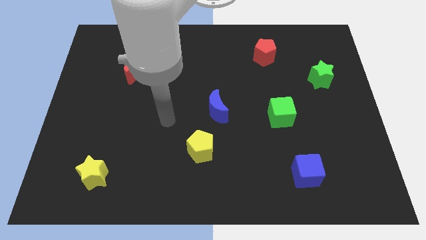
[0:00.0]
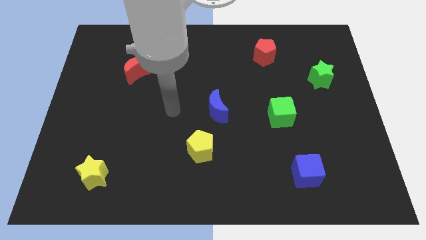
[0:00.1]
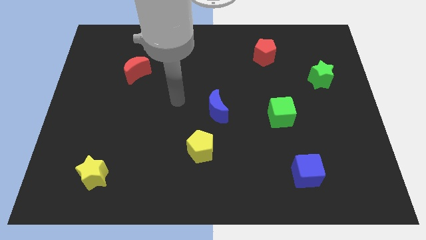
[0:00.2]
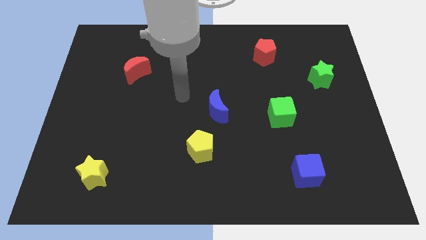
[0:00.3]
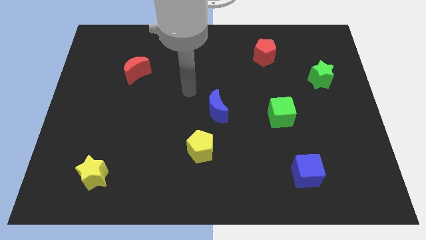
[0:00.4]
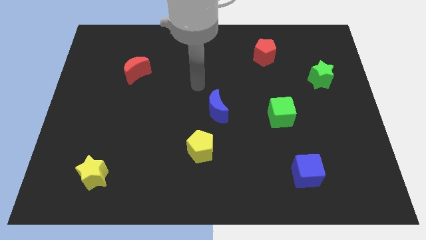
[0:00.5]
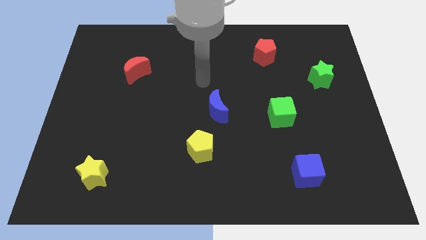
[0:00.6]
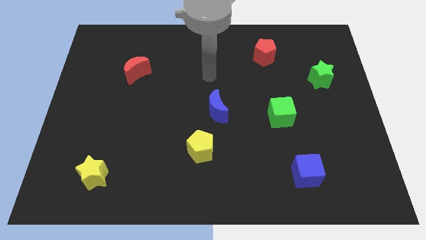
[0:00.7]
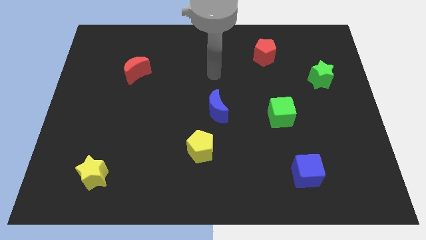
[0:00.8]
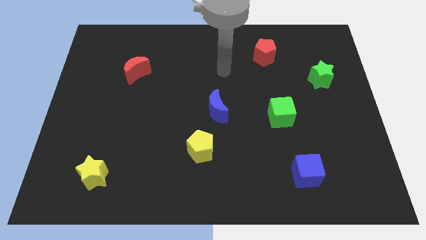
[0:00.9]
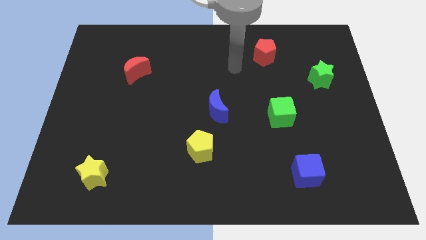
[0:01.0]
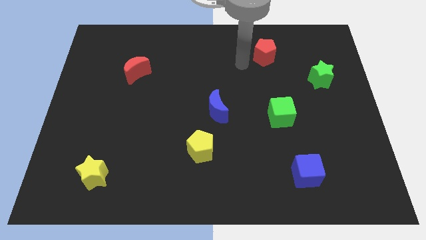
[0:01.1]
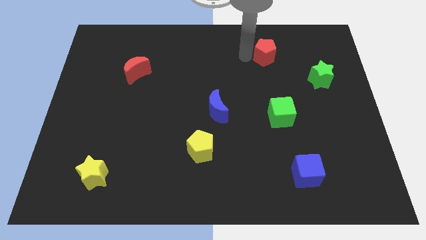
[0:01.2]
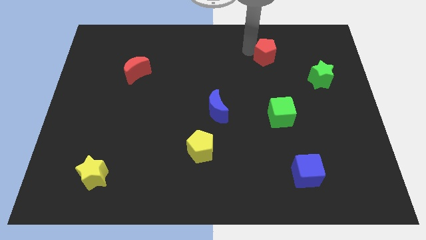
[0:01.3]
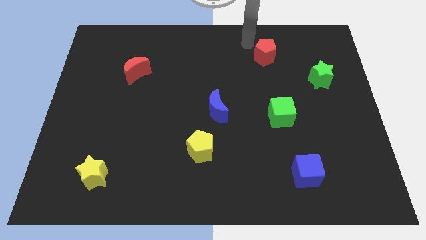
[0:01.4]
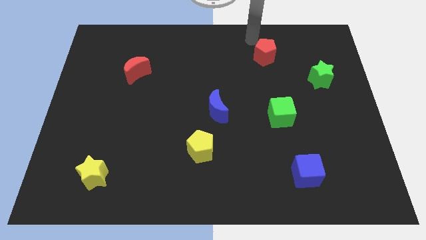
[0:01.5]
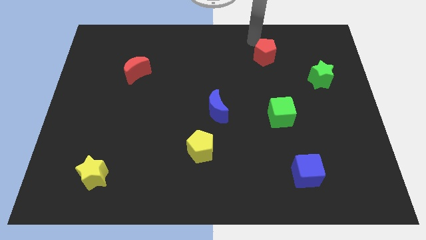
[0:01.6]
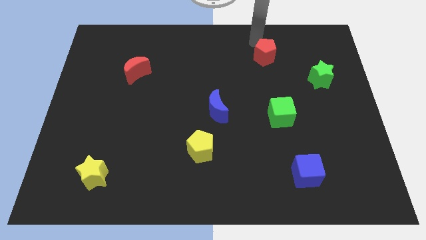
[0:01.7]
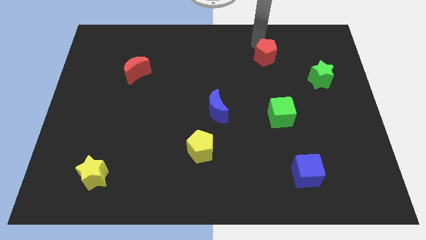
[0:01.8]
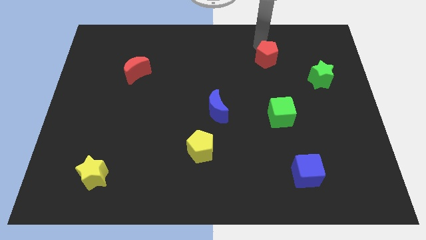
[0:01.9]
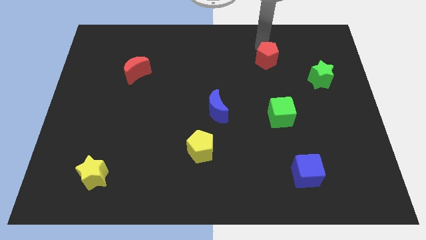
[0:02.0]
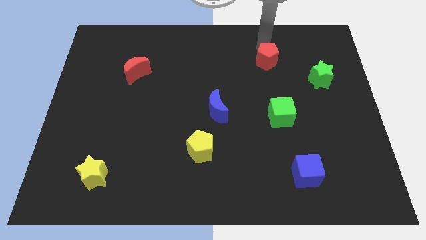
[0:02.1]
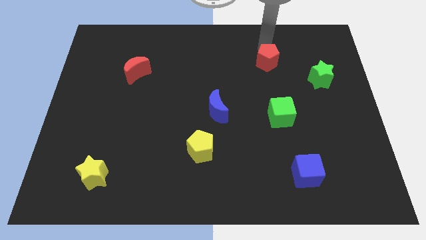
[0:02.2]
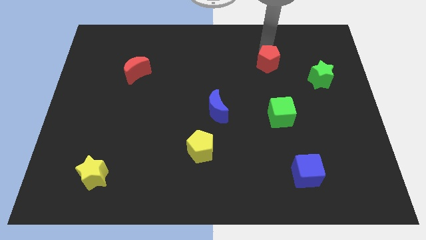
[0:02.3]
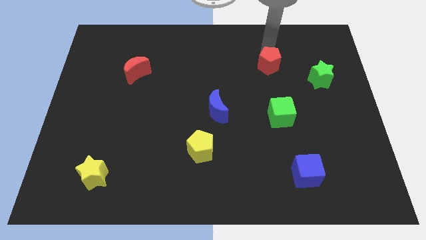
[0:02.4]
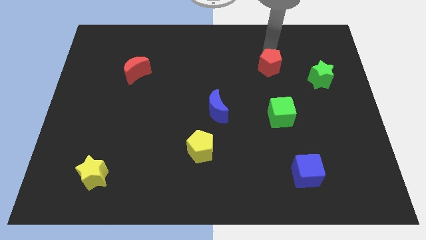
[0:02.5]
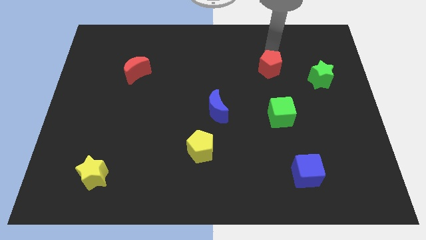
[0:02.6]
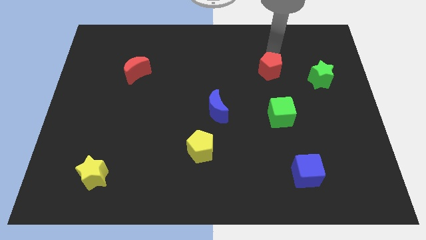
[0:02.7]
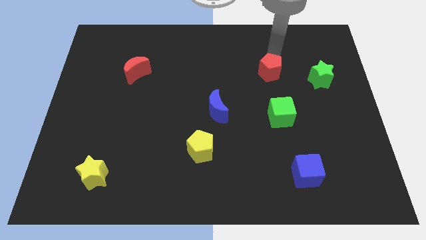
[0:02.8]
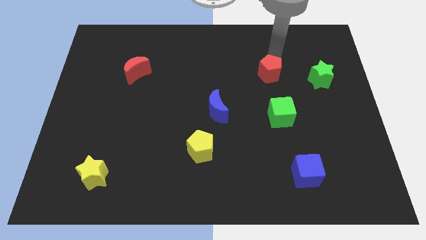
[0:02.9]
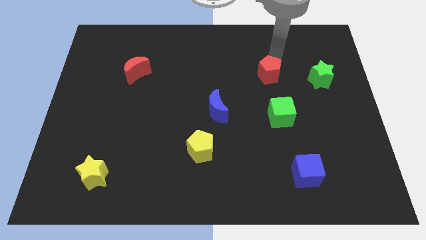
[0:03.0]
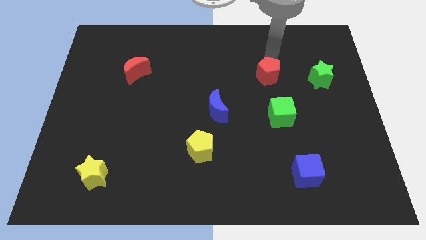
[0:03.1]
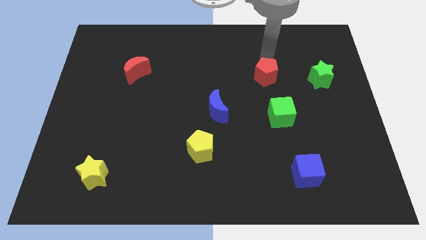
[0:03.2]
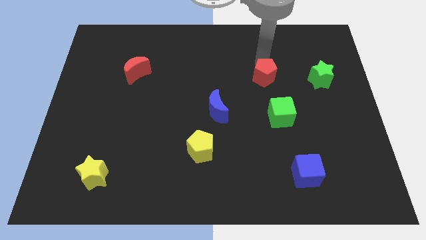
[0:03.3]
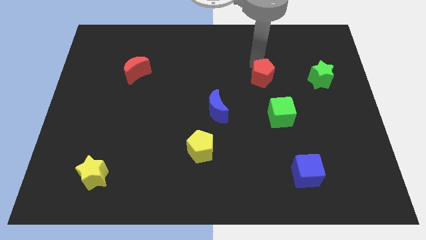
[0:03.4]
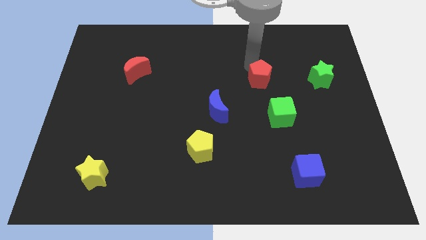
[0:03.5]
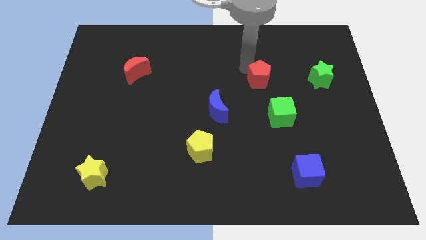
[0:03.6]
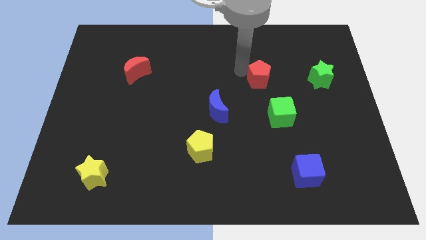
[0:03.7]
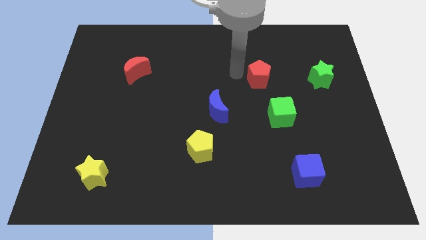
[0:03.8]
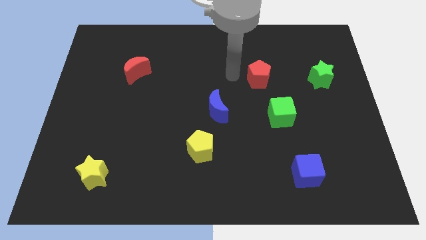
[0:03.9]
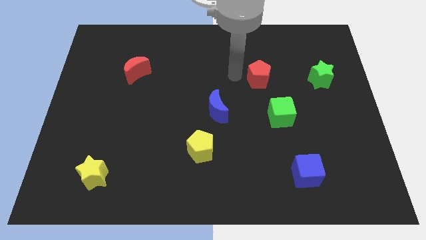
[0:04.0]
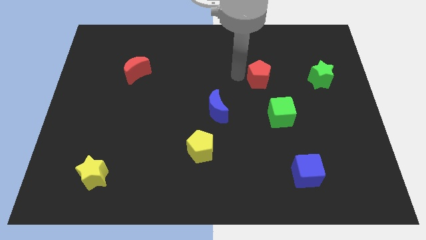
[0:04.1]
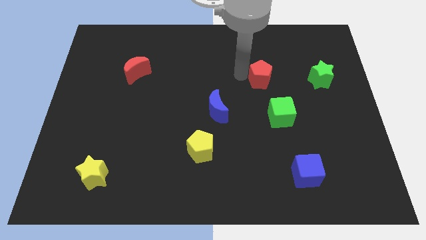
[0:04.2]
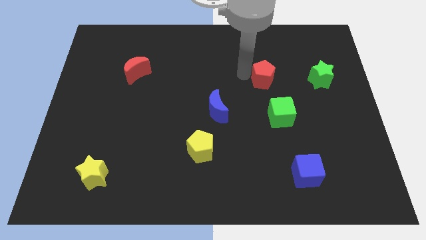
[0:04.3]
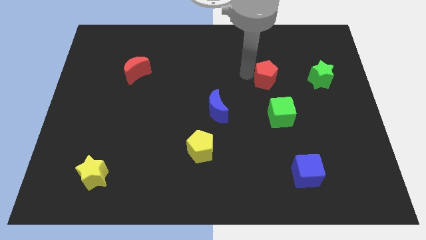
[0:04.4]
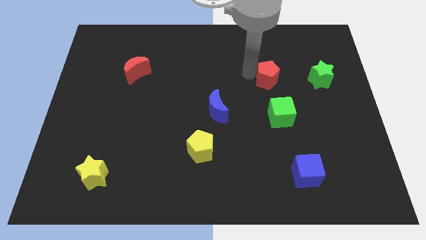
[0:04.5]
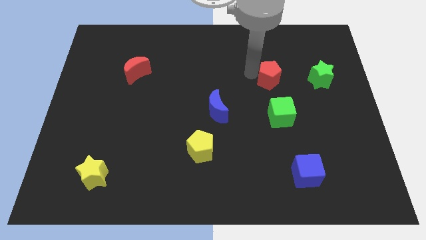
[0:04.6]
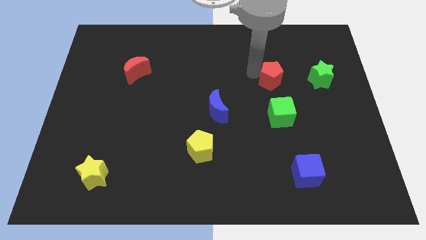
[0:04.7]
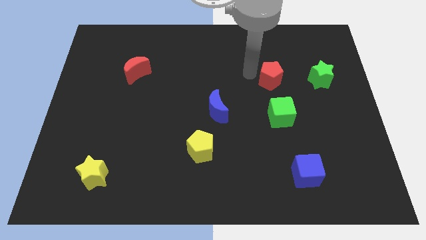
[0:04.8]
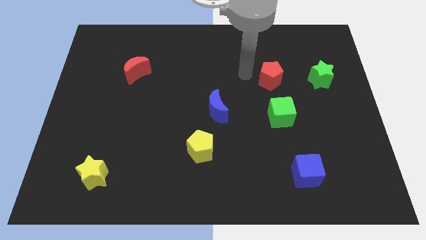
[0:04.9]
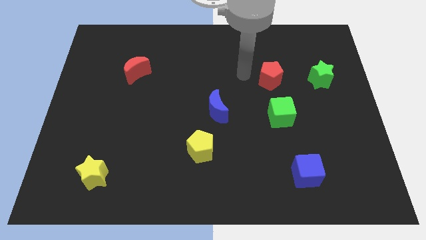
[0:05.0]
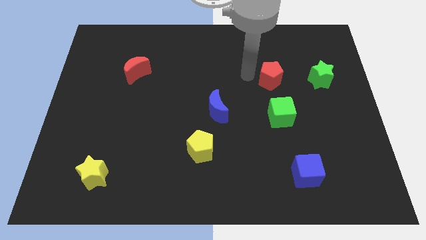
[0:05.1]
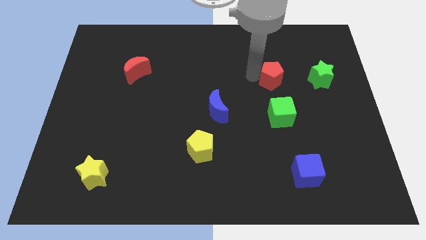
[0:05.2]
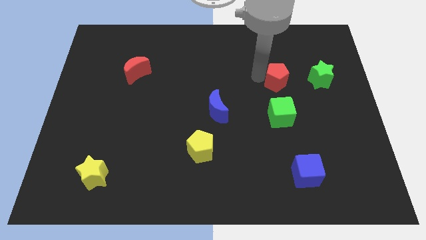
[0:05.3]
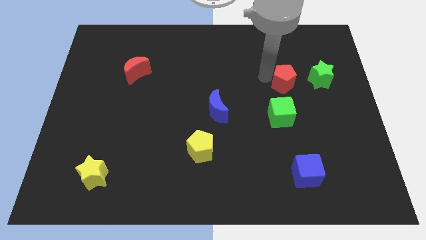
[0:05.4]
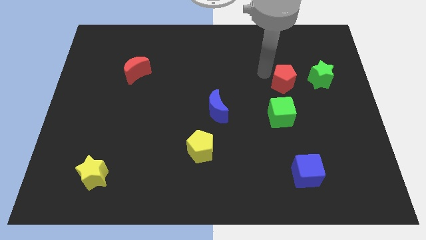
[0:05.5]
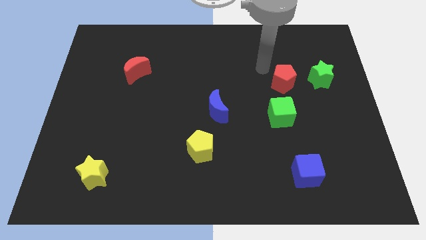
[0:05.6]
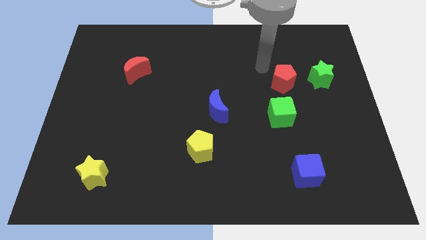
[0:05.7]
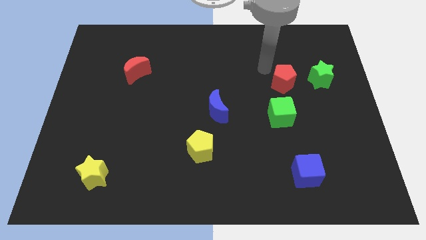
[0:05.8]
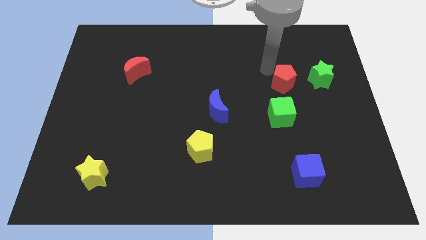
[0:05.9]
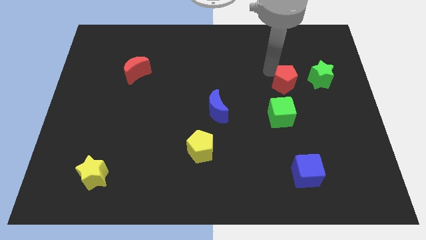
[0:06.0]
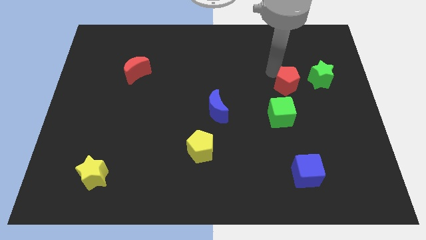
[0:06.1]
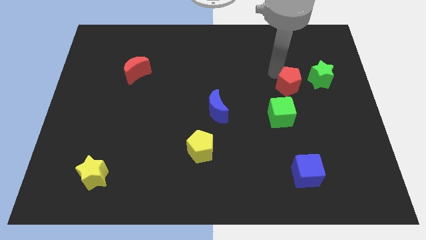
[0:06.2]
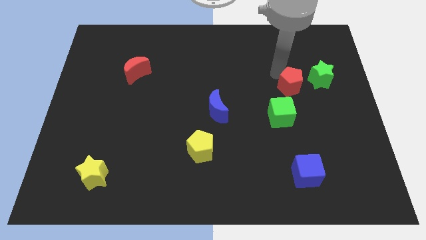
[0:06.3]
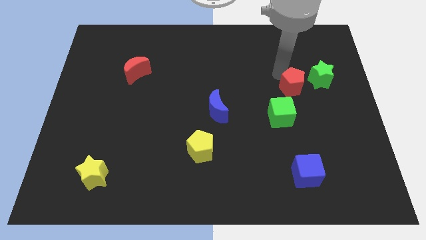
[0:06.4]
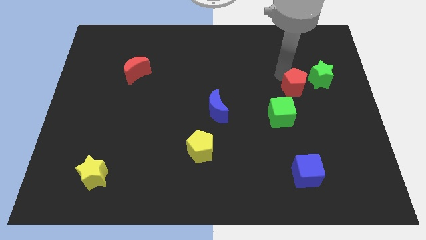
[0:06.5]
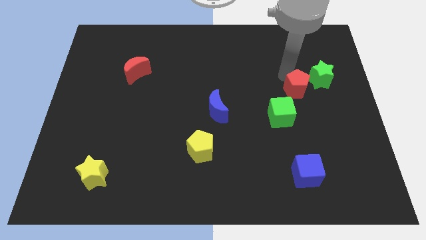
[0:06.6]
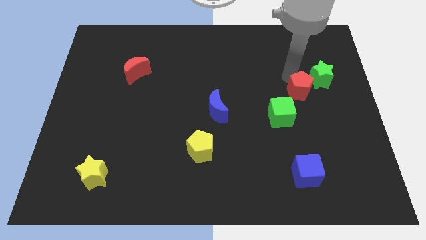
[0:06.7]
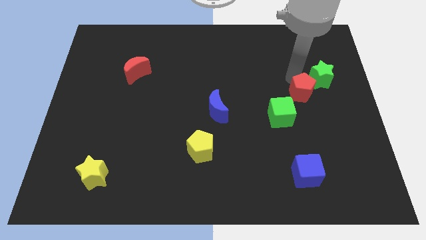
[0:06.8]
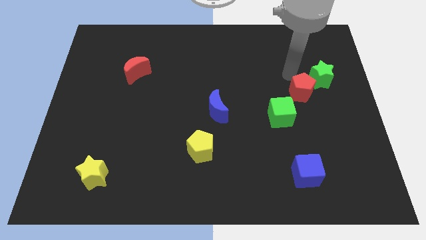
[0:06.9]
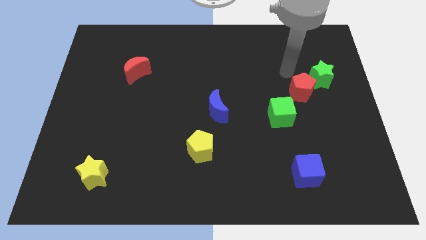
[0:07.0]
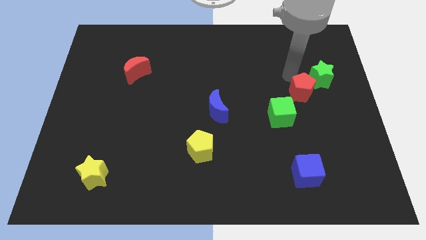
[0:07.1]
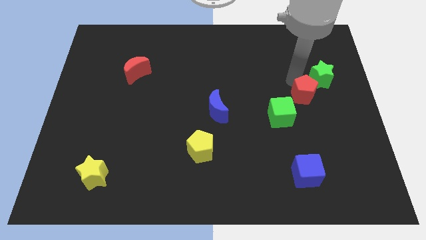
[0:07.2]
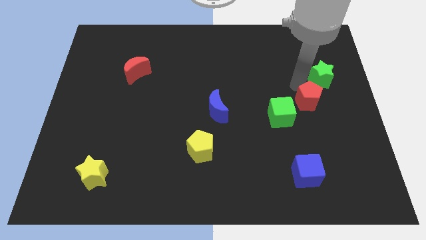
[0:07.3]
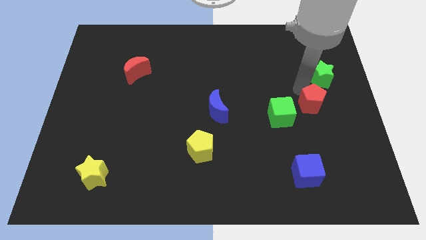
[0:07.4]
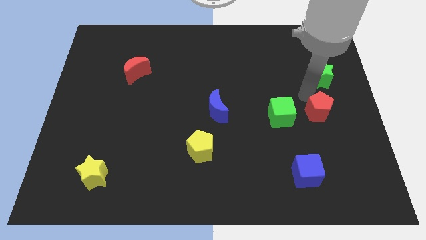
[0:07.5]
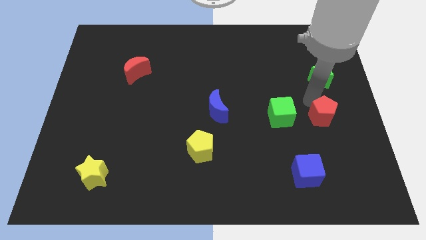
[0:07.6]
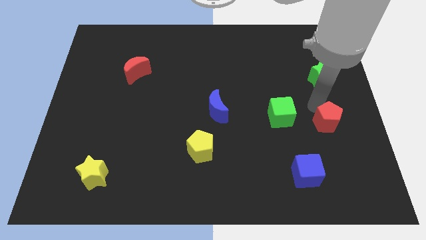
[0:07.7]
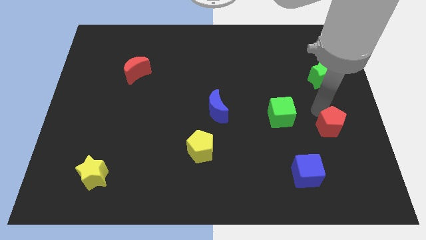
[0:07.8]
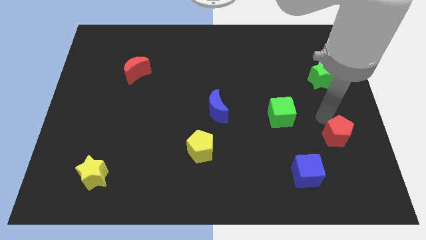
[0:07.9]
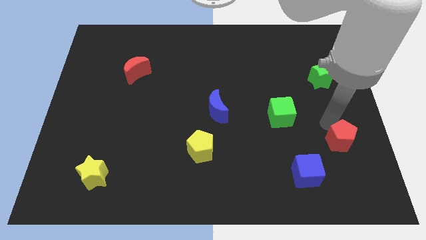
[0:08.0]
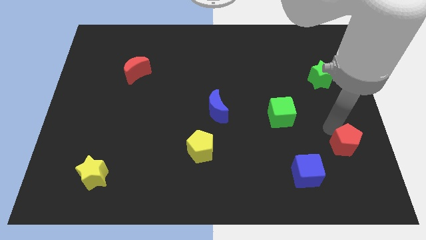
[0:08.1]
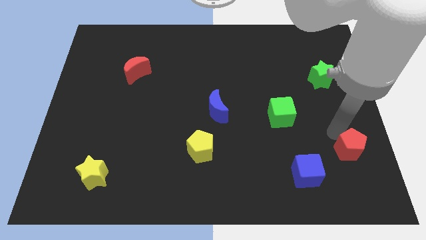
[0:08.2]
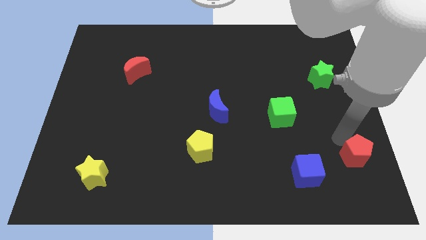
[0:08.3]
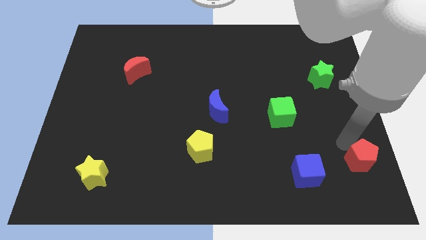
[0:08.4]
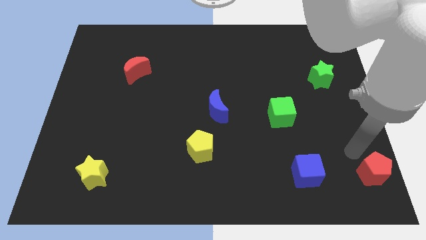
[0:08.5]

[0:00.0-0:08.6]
move the red pentagon to the bottom right corner
